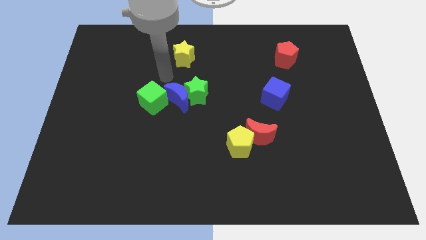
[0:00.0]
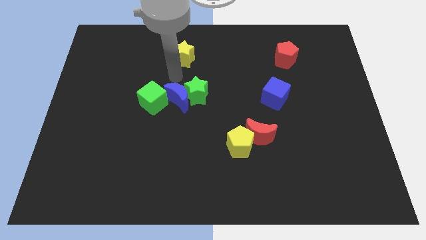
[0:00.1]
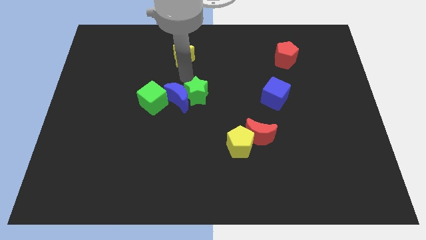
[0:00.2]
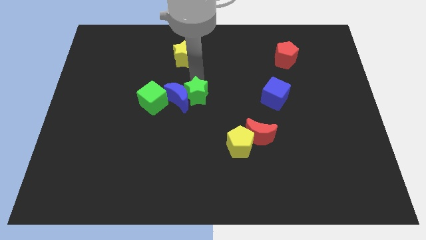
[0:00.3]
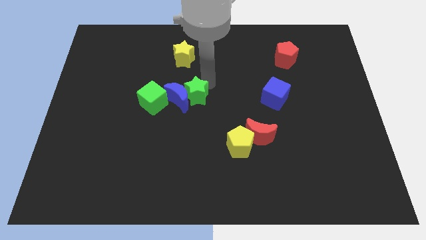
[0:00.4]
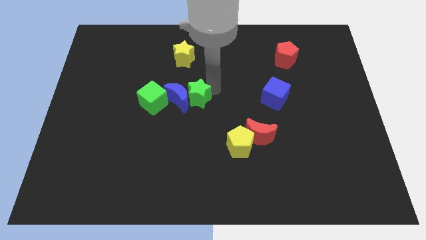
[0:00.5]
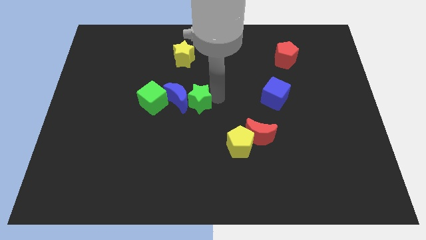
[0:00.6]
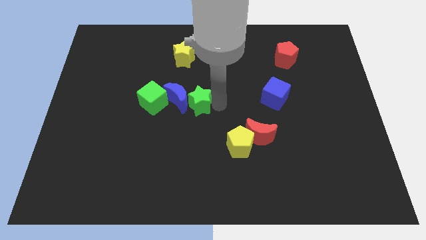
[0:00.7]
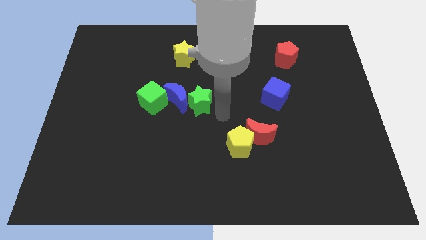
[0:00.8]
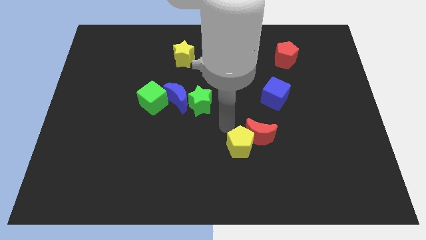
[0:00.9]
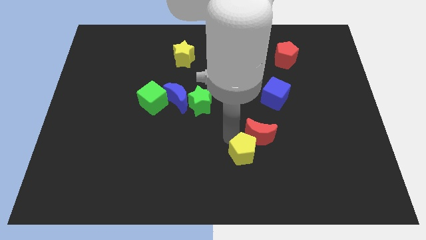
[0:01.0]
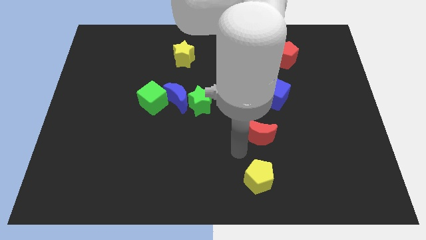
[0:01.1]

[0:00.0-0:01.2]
move the red moon away from the yellow pentagon

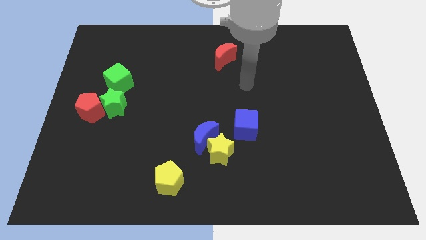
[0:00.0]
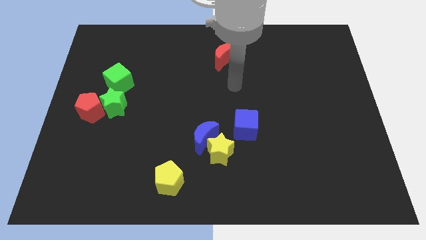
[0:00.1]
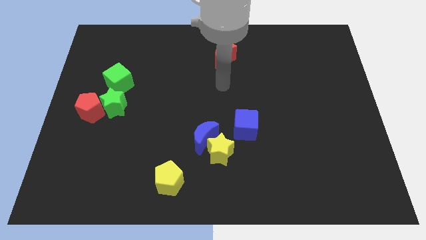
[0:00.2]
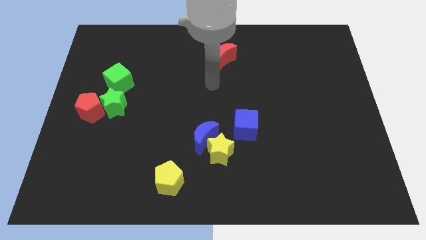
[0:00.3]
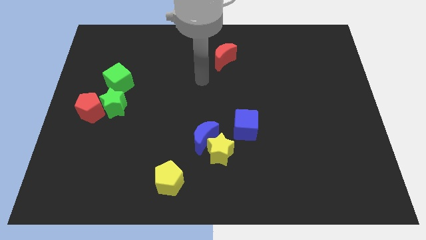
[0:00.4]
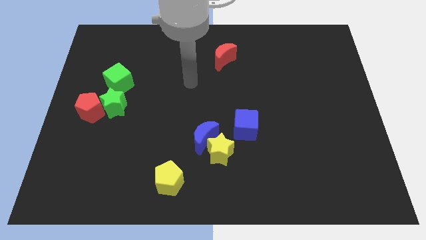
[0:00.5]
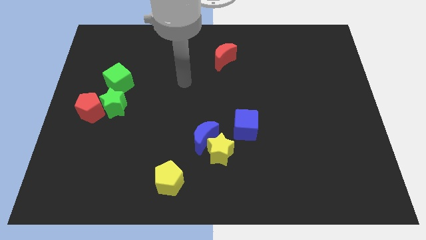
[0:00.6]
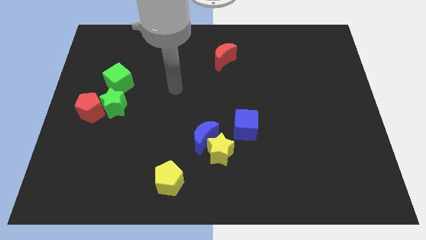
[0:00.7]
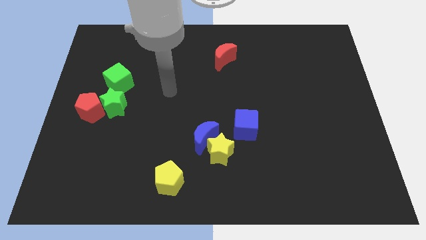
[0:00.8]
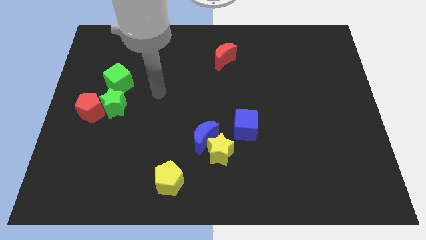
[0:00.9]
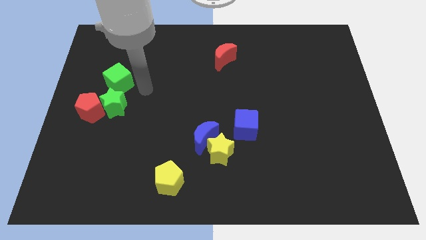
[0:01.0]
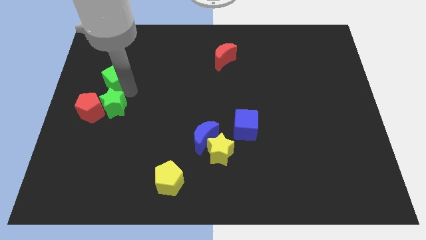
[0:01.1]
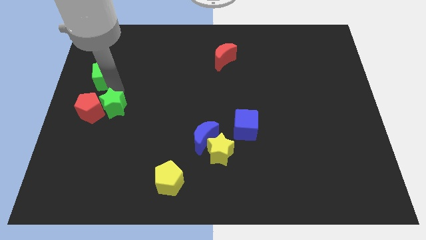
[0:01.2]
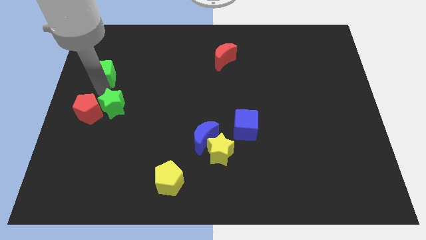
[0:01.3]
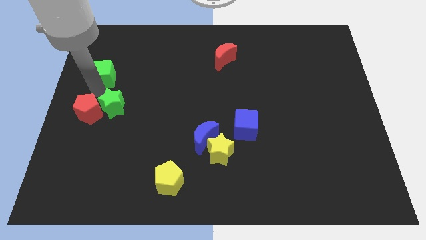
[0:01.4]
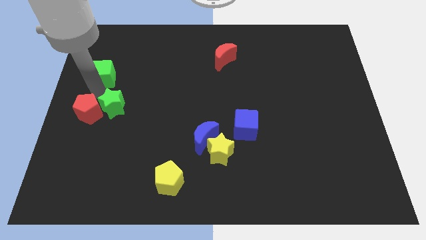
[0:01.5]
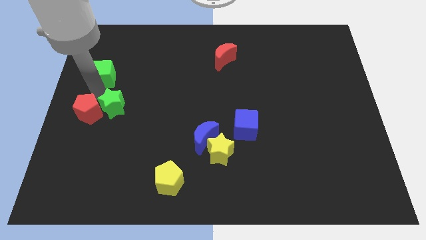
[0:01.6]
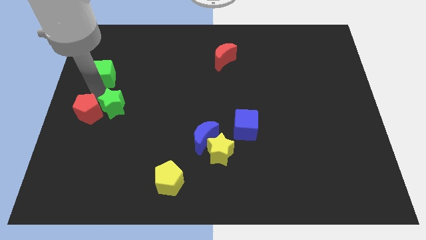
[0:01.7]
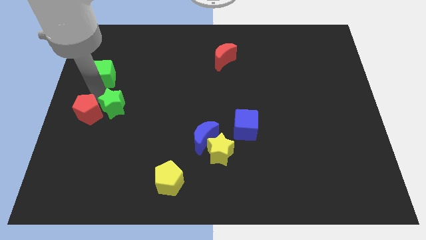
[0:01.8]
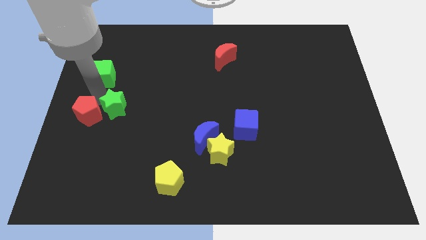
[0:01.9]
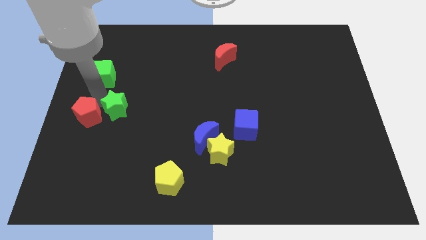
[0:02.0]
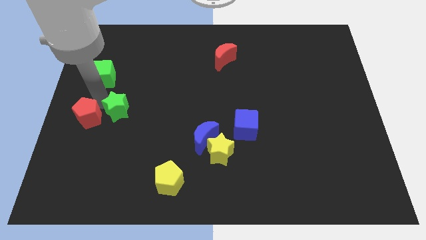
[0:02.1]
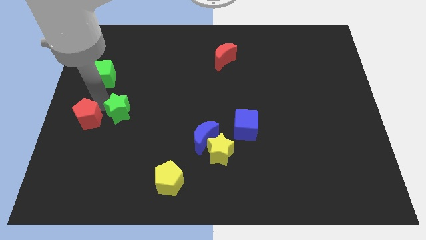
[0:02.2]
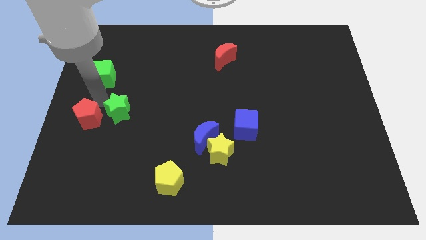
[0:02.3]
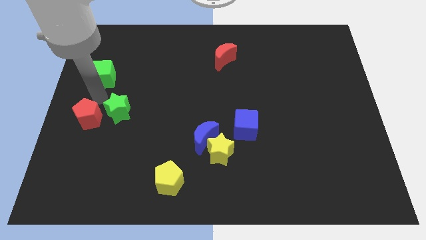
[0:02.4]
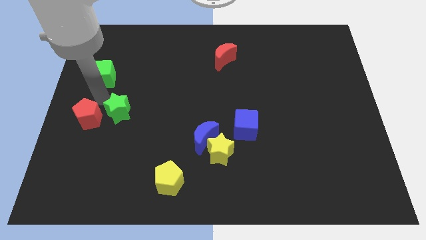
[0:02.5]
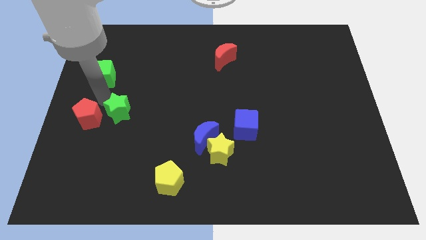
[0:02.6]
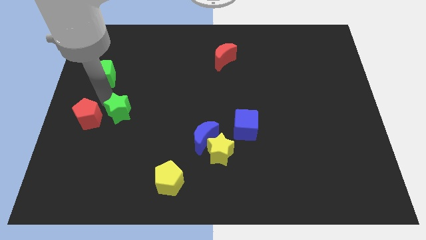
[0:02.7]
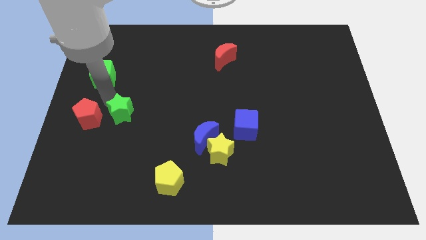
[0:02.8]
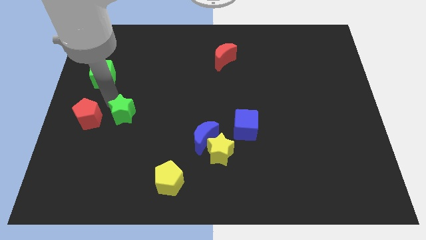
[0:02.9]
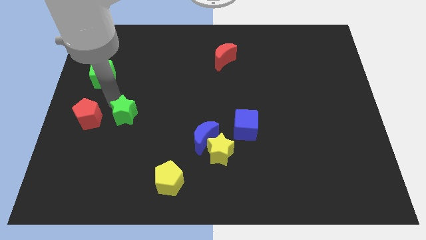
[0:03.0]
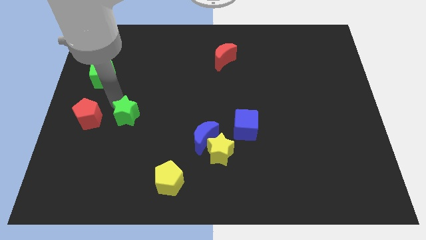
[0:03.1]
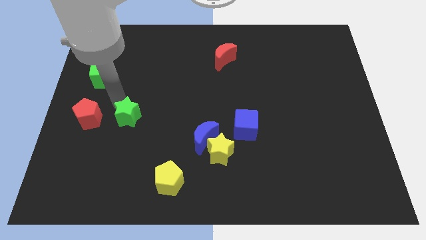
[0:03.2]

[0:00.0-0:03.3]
move the green star away from the red pentagon and green cube

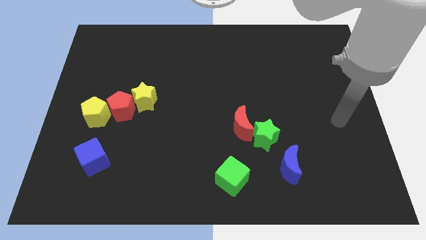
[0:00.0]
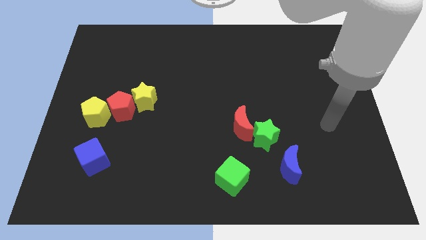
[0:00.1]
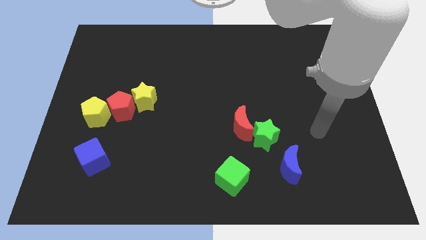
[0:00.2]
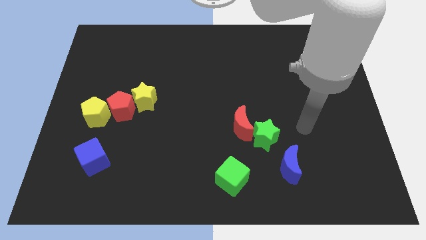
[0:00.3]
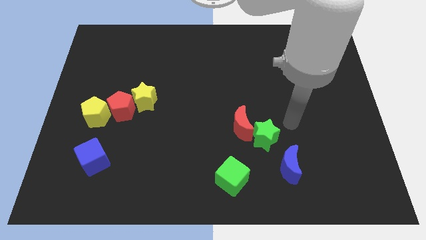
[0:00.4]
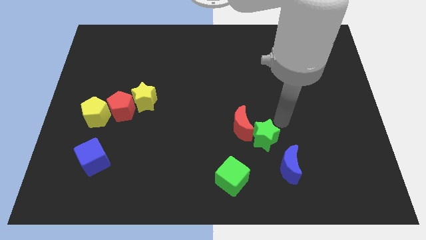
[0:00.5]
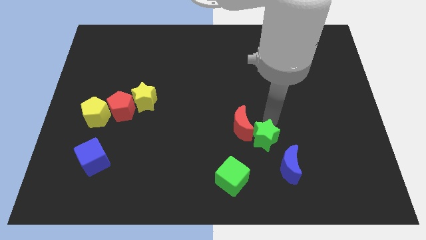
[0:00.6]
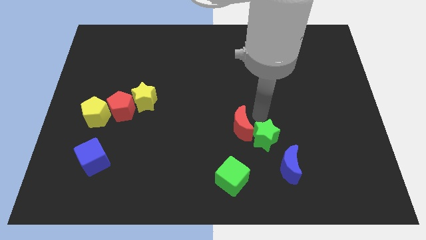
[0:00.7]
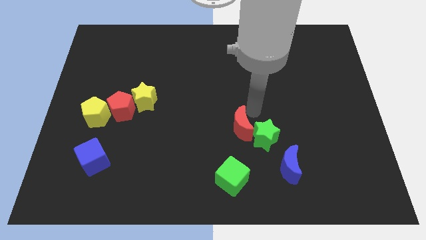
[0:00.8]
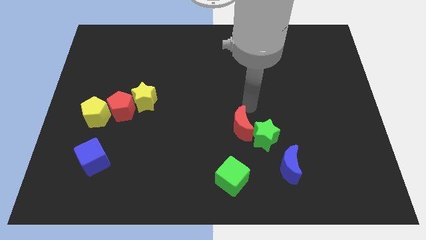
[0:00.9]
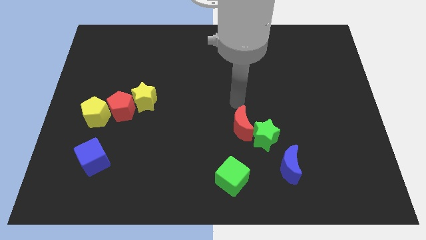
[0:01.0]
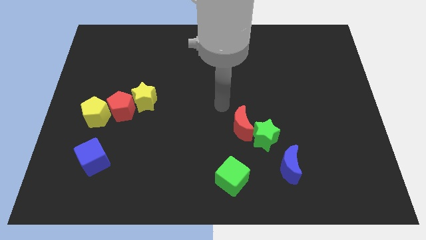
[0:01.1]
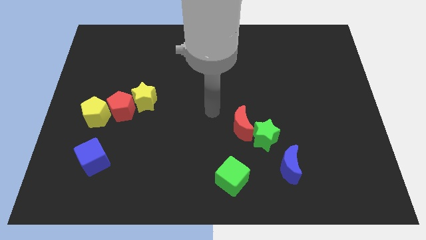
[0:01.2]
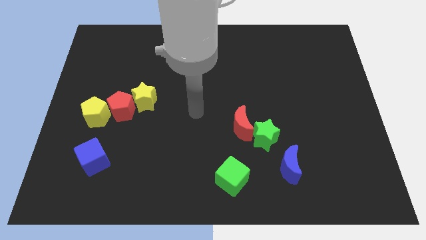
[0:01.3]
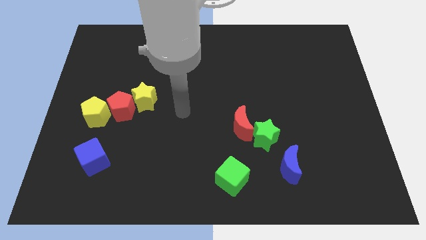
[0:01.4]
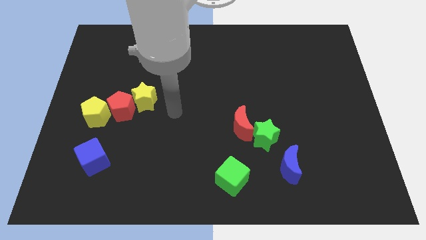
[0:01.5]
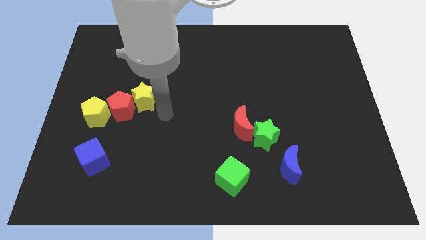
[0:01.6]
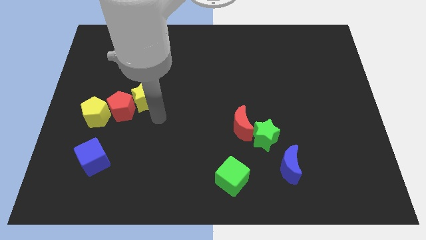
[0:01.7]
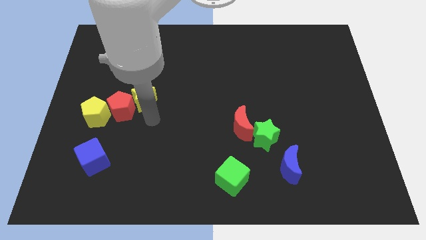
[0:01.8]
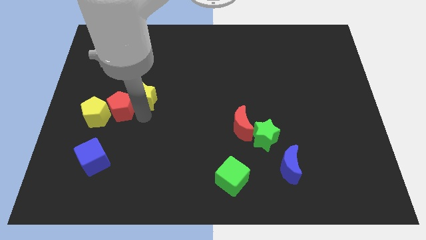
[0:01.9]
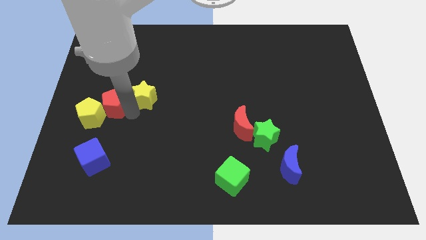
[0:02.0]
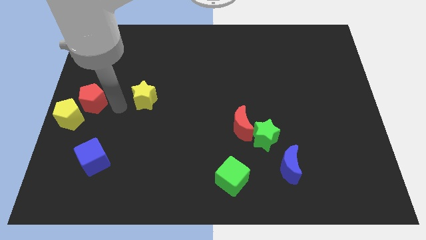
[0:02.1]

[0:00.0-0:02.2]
move the yellow star away from the red pentagon

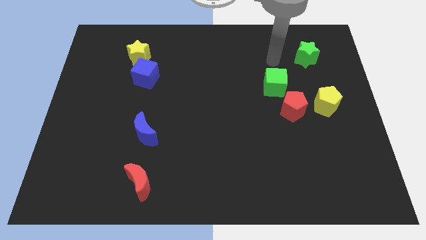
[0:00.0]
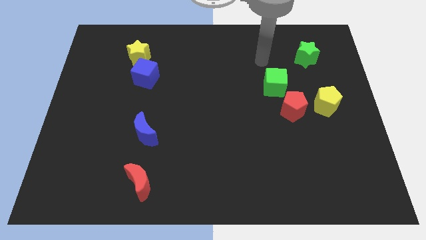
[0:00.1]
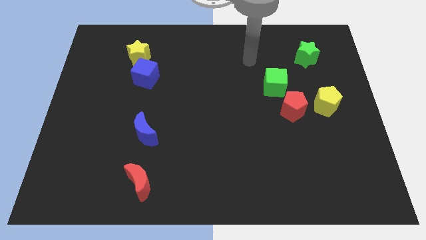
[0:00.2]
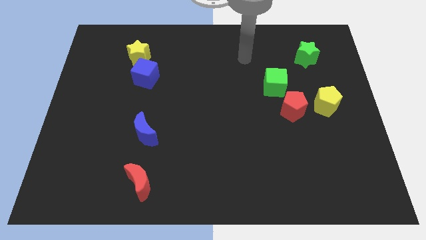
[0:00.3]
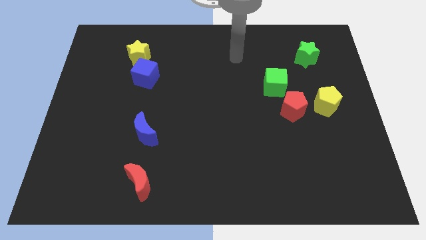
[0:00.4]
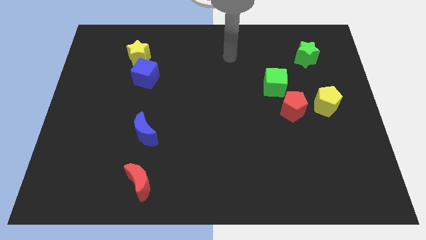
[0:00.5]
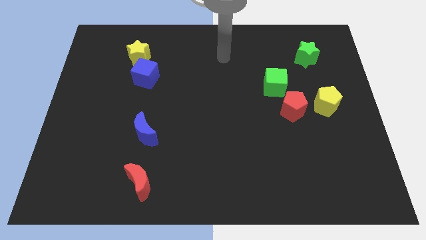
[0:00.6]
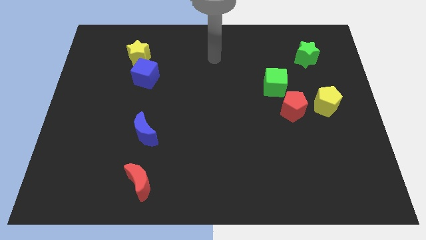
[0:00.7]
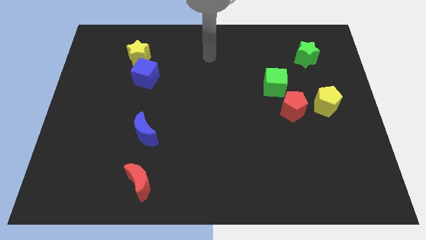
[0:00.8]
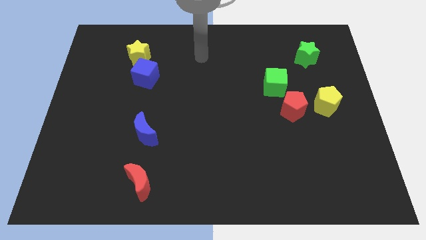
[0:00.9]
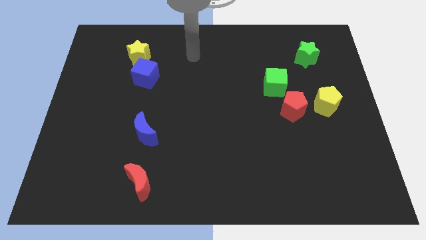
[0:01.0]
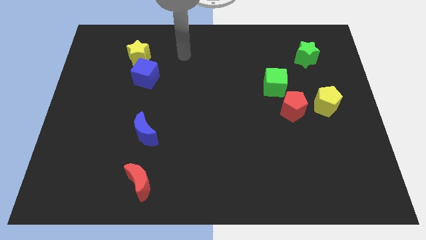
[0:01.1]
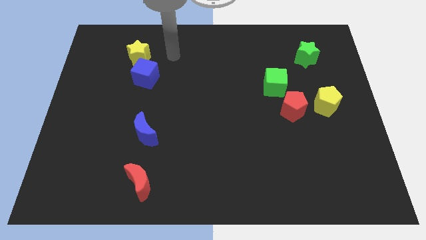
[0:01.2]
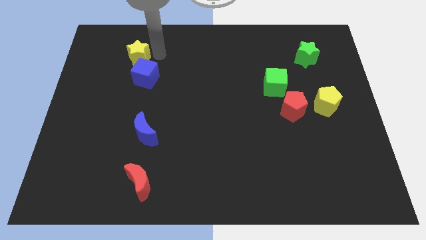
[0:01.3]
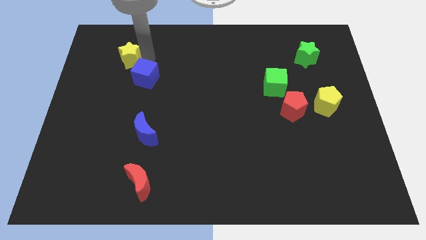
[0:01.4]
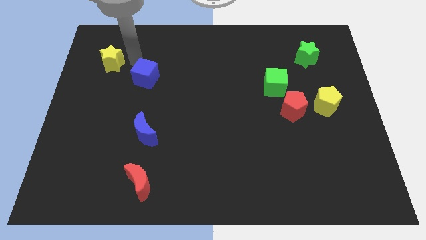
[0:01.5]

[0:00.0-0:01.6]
separate the blue cube from the yellow star

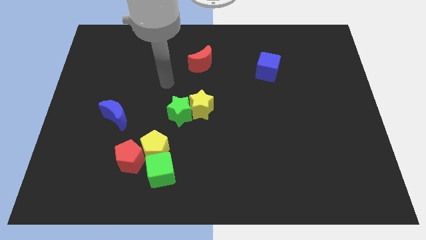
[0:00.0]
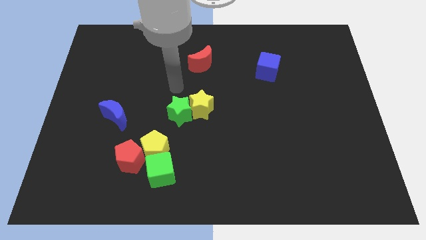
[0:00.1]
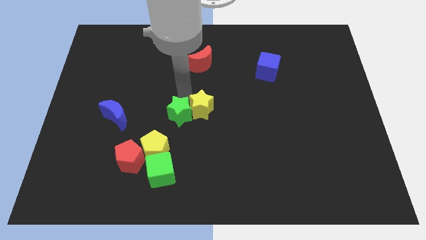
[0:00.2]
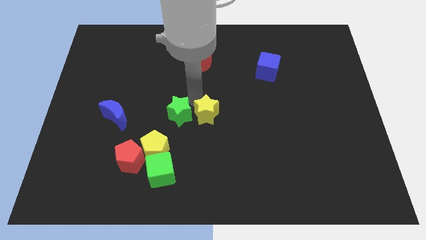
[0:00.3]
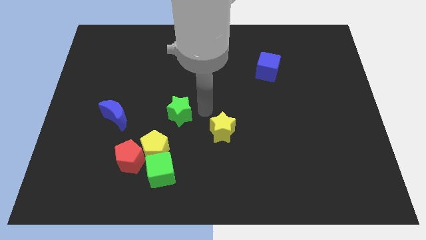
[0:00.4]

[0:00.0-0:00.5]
pull the green star apart from the yellow star

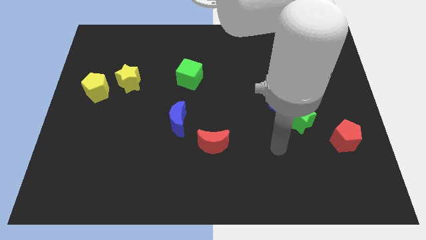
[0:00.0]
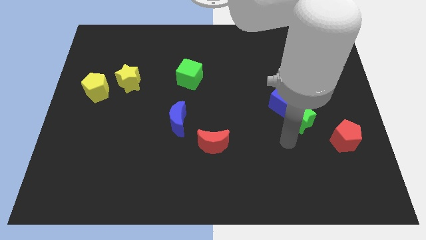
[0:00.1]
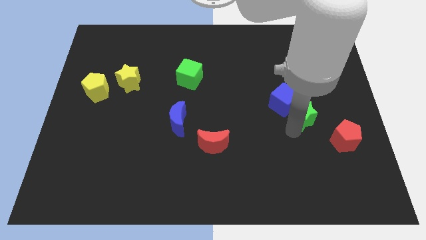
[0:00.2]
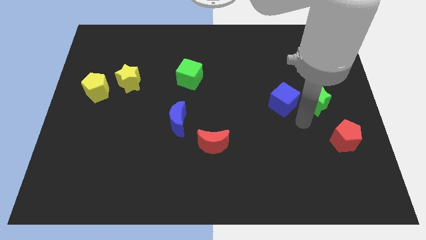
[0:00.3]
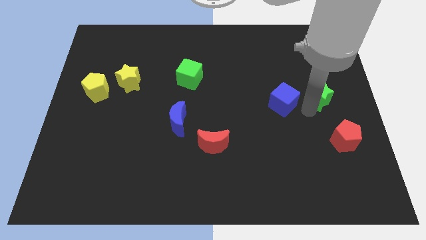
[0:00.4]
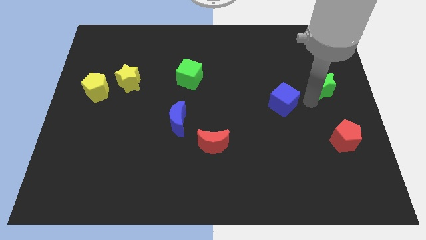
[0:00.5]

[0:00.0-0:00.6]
pull the blue cube apart from the green star
